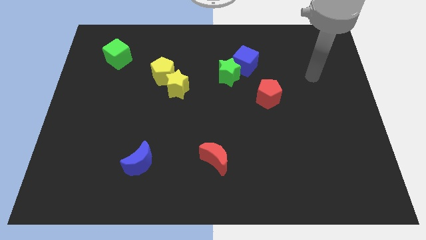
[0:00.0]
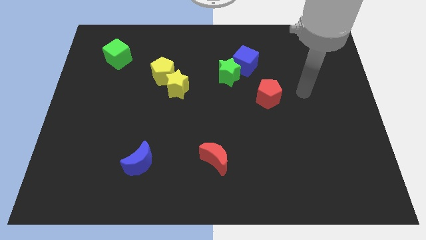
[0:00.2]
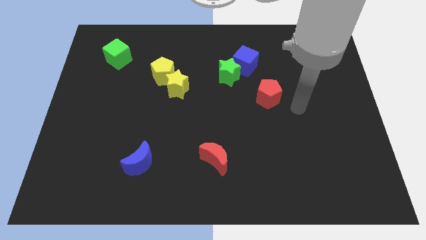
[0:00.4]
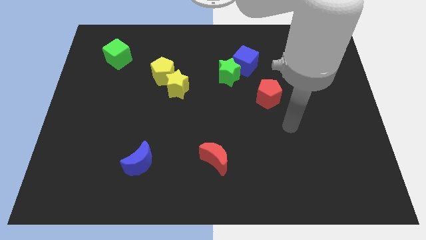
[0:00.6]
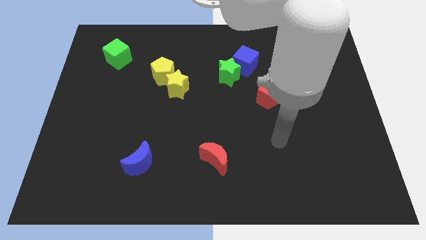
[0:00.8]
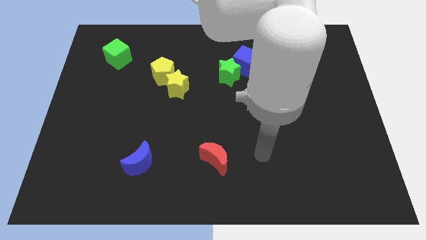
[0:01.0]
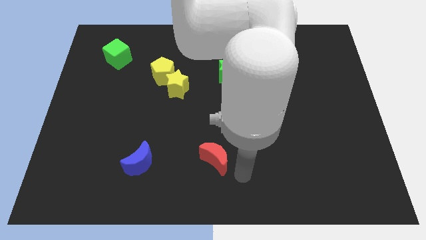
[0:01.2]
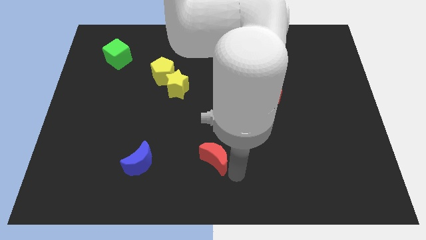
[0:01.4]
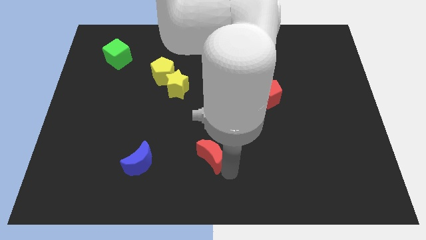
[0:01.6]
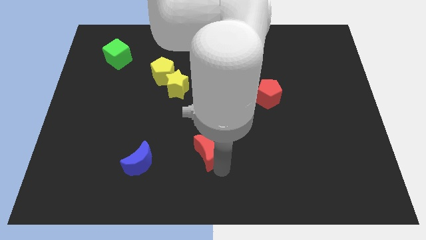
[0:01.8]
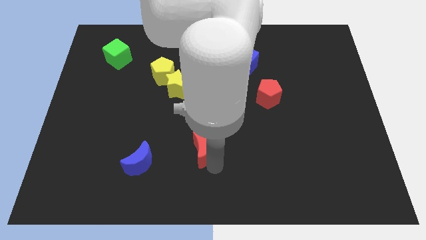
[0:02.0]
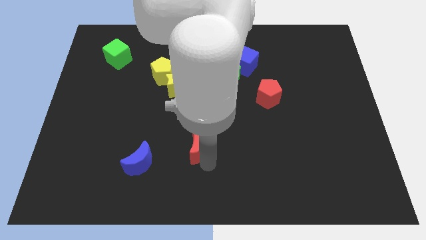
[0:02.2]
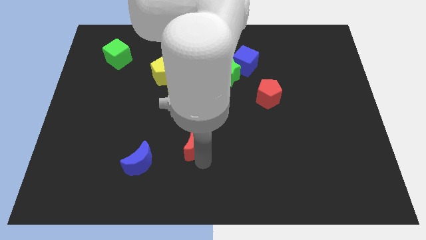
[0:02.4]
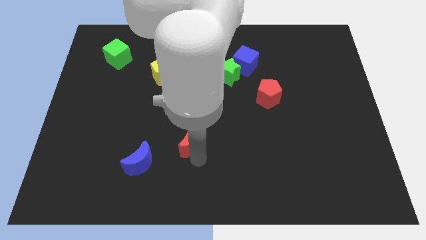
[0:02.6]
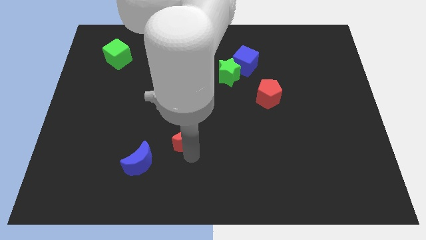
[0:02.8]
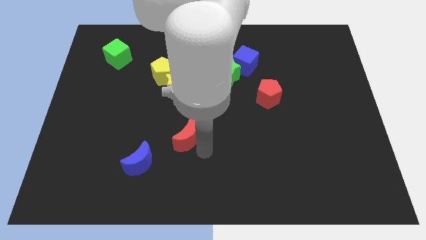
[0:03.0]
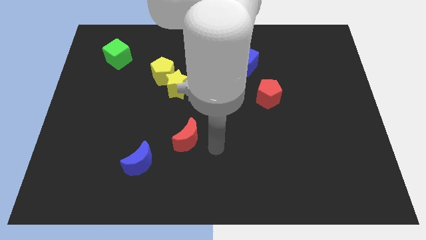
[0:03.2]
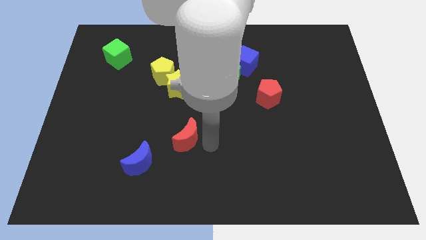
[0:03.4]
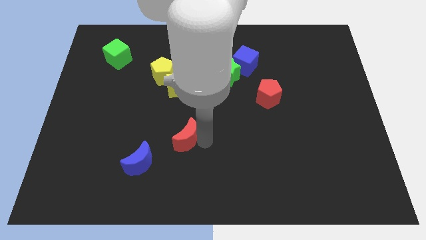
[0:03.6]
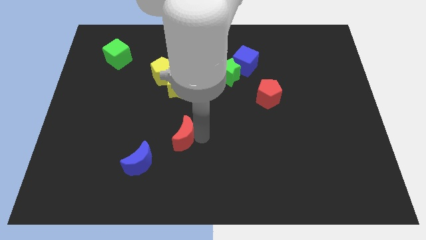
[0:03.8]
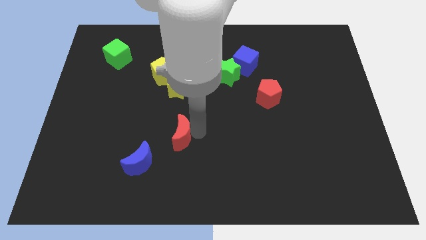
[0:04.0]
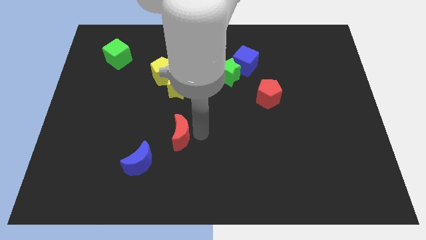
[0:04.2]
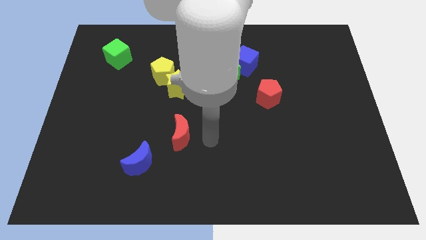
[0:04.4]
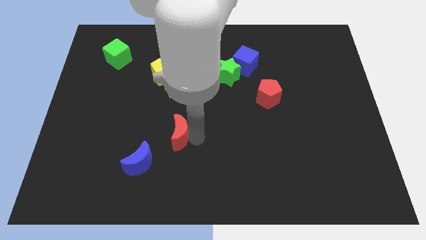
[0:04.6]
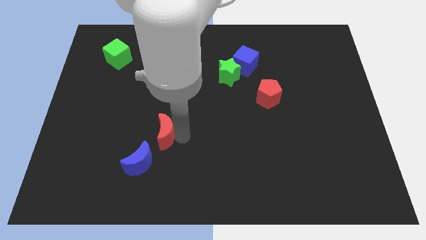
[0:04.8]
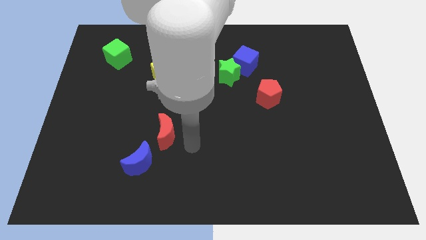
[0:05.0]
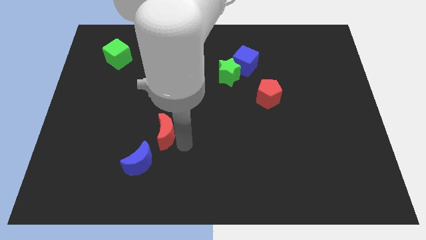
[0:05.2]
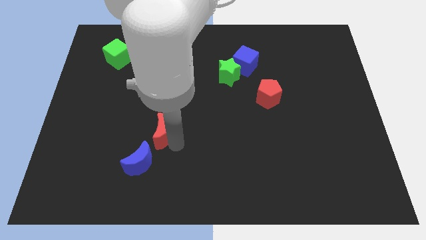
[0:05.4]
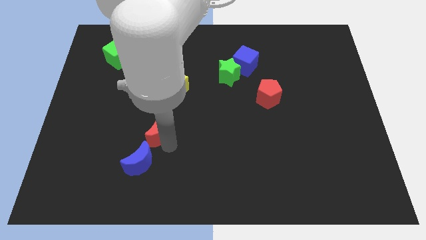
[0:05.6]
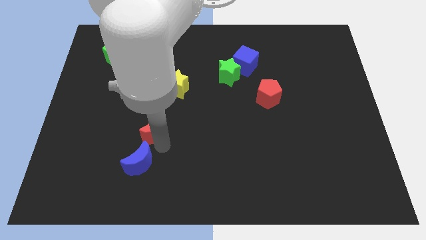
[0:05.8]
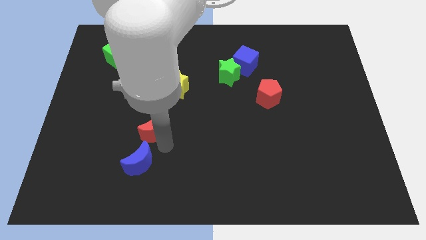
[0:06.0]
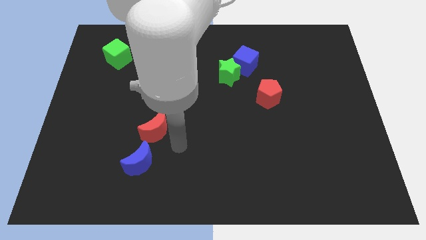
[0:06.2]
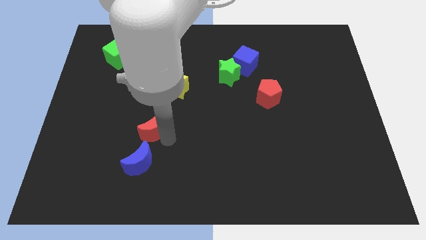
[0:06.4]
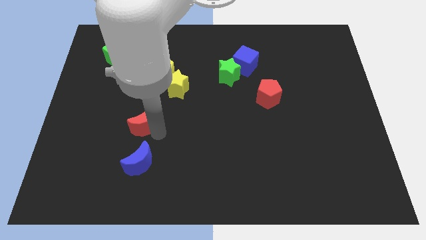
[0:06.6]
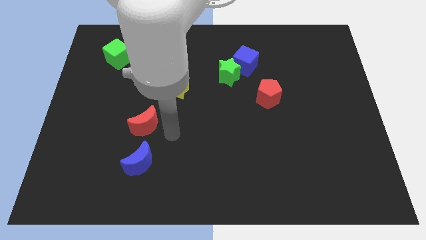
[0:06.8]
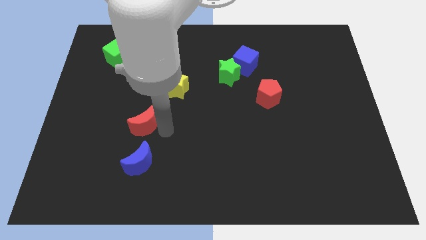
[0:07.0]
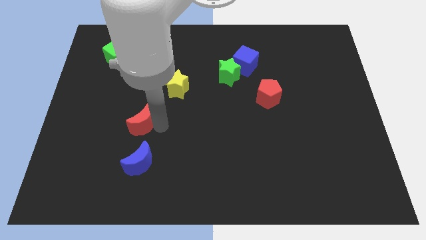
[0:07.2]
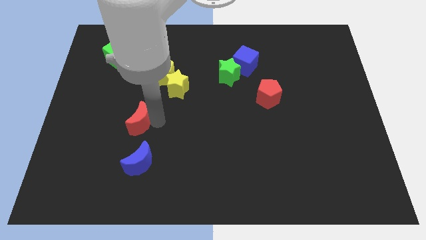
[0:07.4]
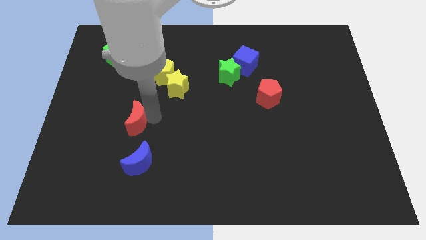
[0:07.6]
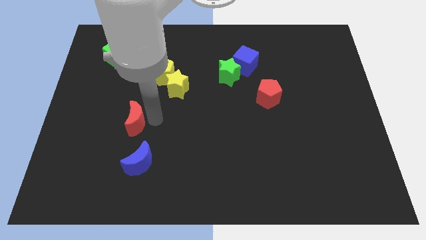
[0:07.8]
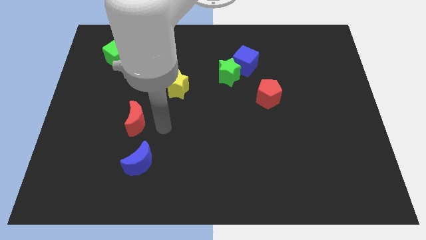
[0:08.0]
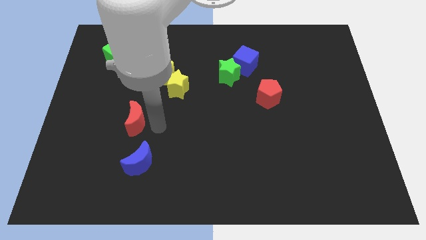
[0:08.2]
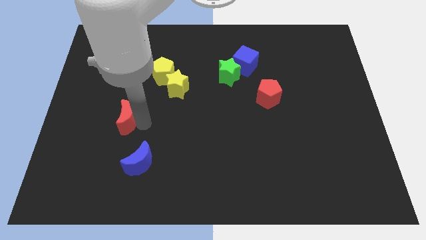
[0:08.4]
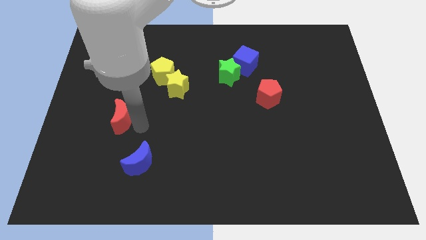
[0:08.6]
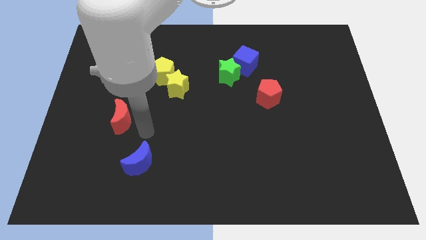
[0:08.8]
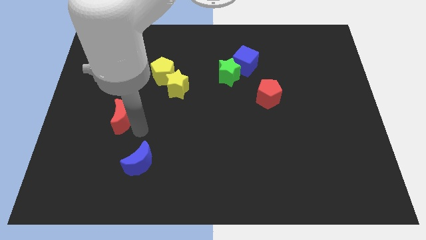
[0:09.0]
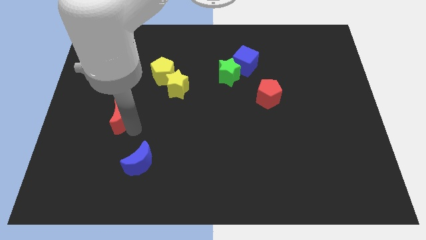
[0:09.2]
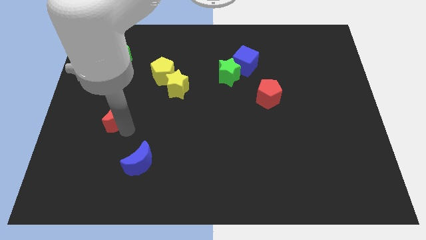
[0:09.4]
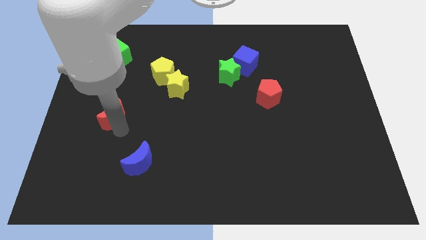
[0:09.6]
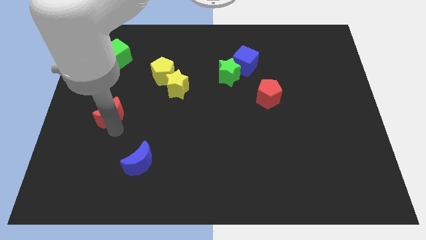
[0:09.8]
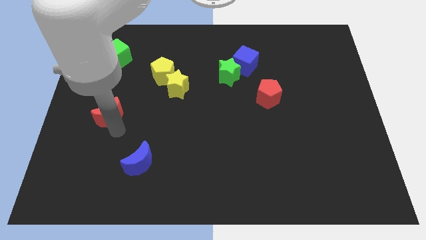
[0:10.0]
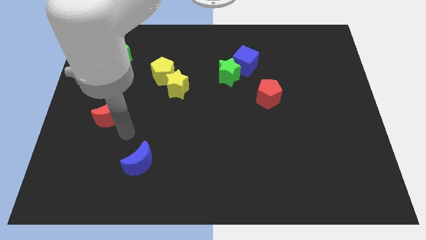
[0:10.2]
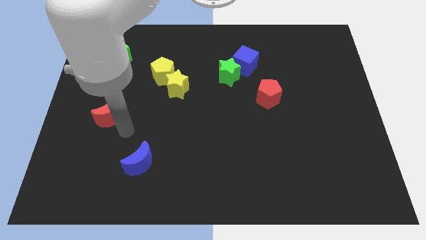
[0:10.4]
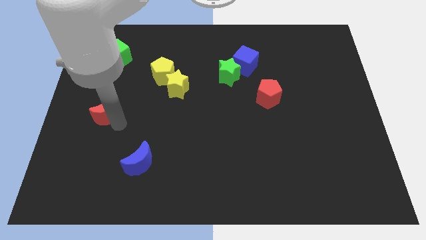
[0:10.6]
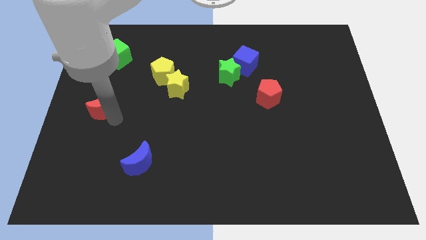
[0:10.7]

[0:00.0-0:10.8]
push the red moon to the center left

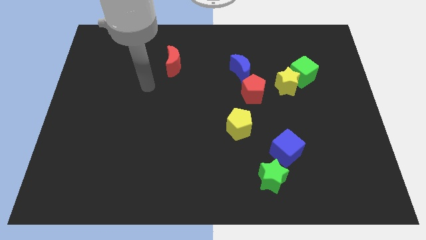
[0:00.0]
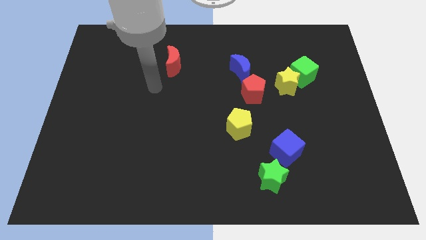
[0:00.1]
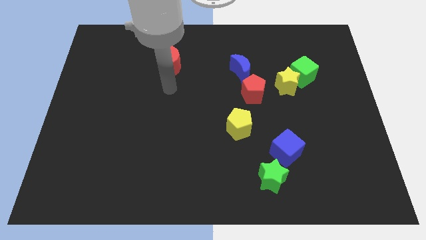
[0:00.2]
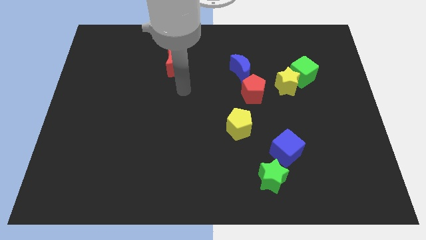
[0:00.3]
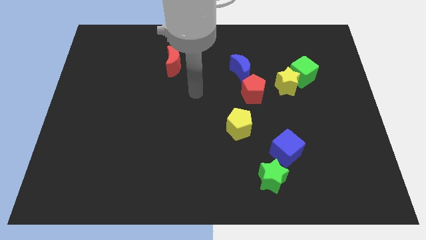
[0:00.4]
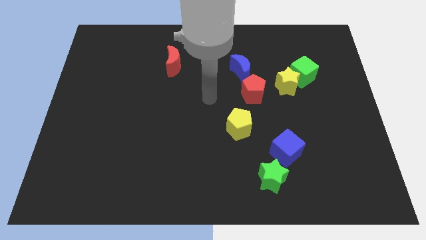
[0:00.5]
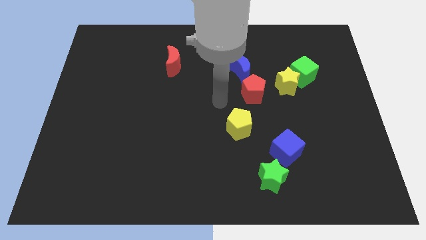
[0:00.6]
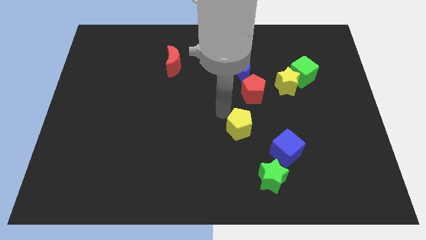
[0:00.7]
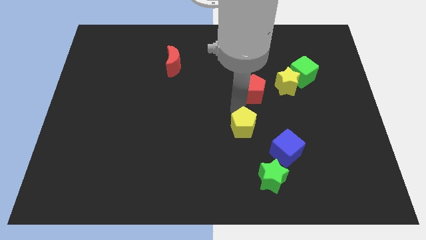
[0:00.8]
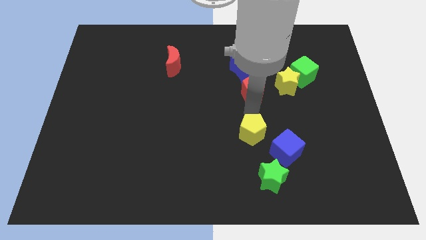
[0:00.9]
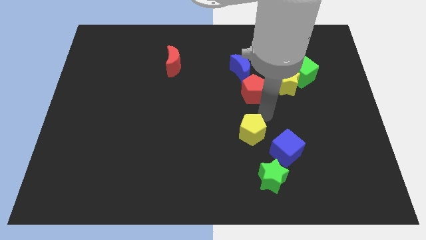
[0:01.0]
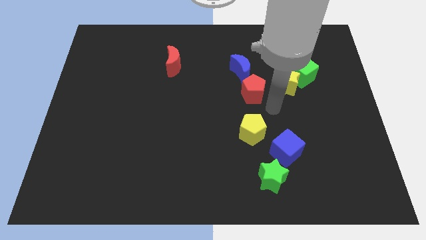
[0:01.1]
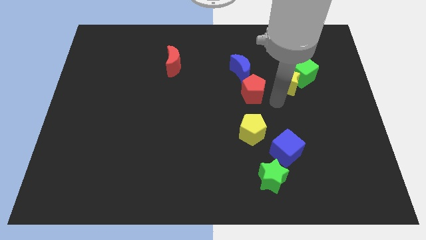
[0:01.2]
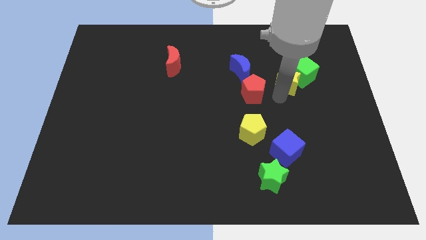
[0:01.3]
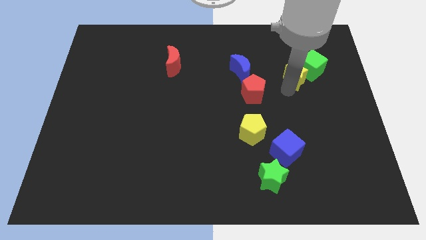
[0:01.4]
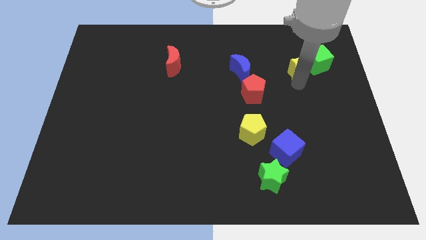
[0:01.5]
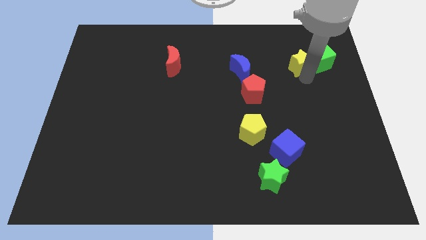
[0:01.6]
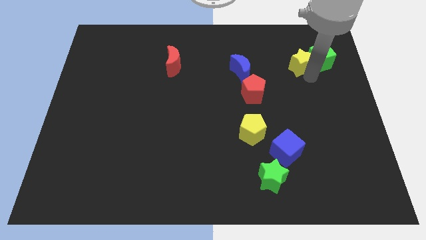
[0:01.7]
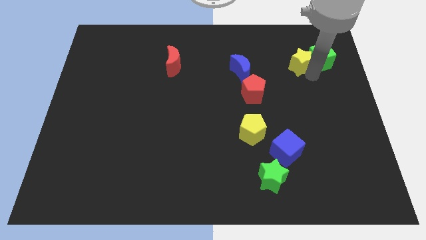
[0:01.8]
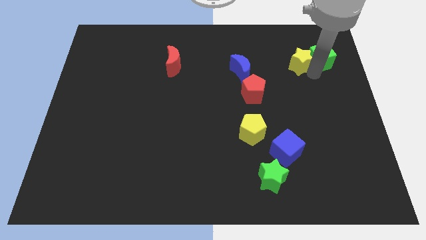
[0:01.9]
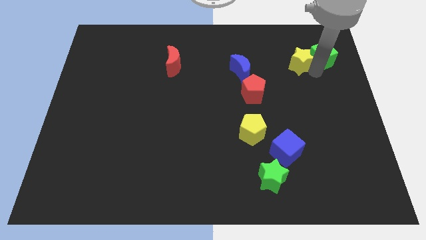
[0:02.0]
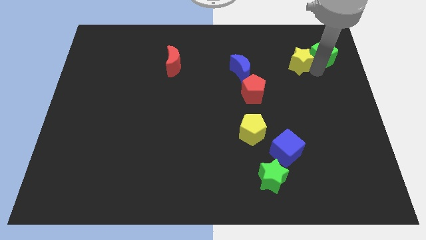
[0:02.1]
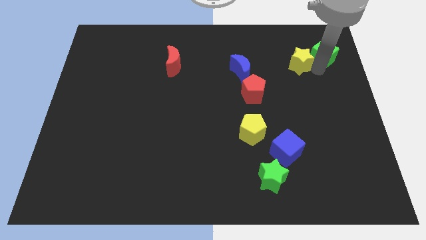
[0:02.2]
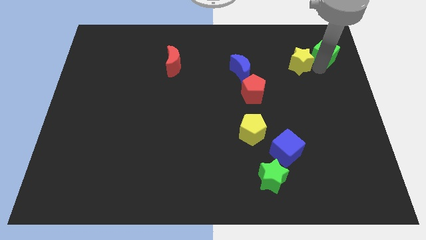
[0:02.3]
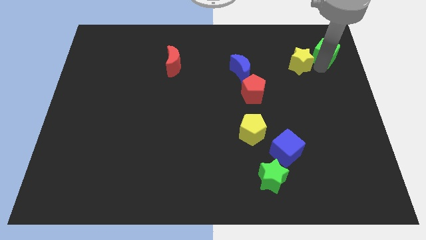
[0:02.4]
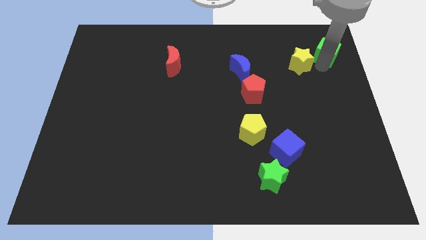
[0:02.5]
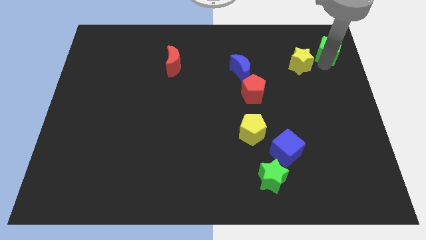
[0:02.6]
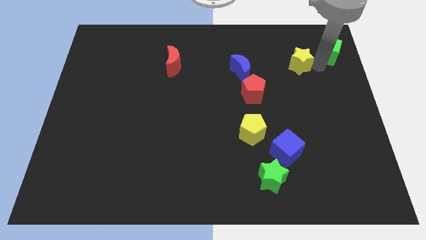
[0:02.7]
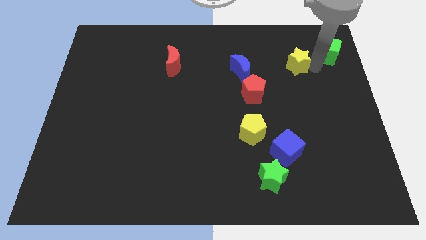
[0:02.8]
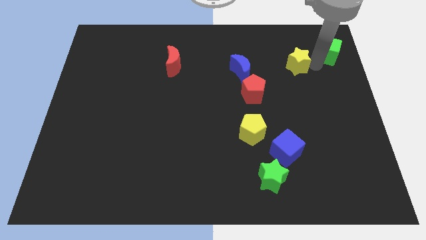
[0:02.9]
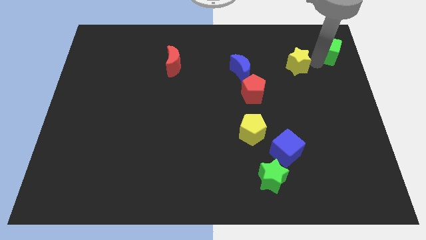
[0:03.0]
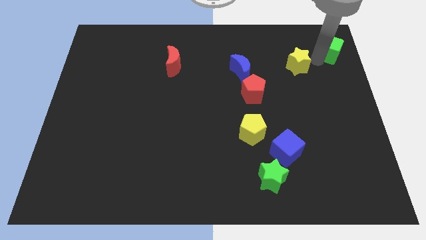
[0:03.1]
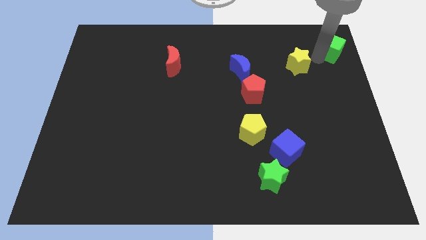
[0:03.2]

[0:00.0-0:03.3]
put the green cube to the top right corner
